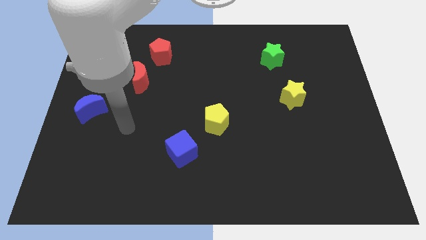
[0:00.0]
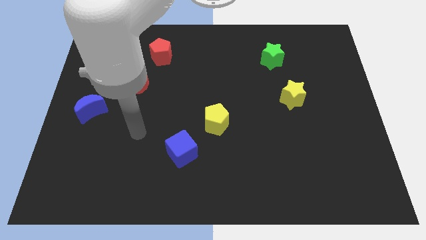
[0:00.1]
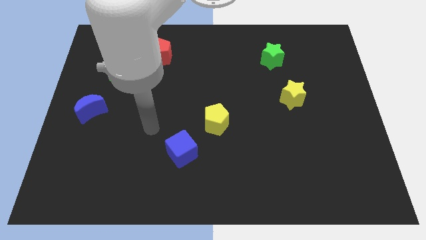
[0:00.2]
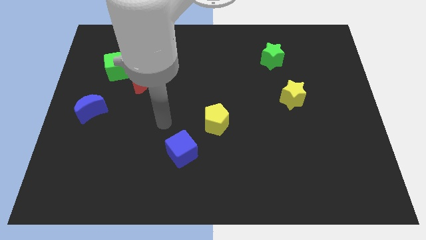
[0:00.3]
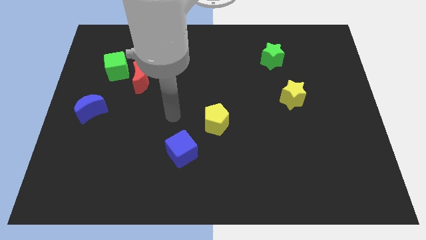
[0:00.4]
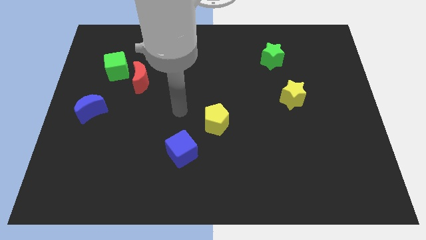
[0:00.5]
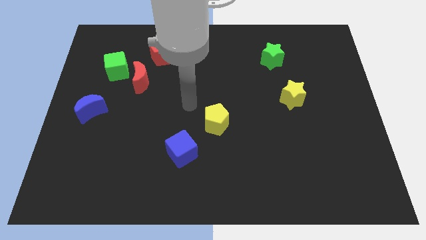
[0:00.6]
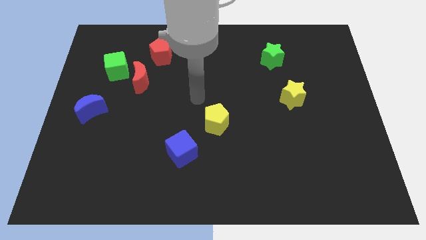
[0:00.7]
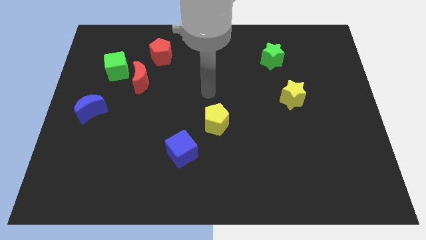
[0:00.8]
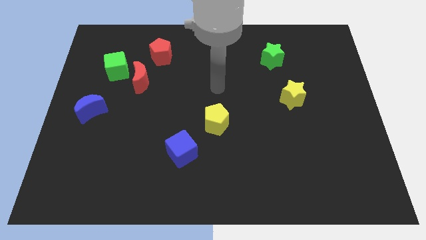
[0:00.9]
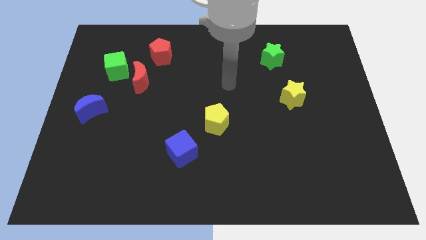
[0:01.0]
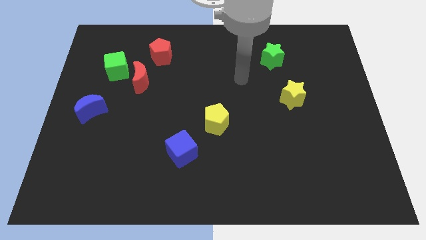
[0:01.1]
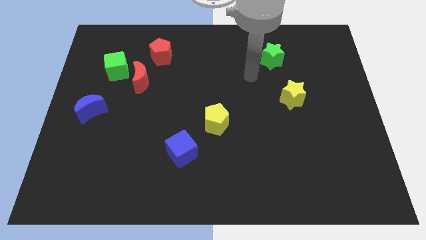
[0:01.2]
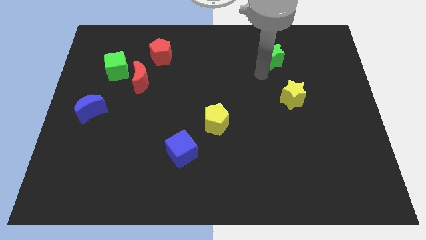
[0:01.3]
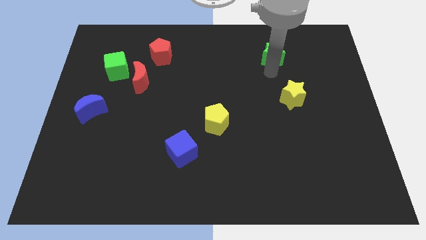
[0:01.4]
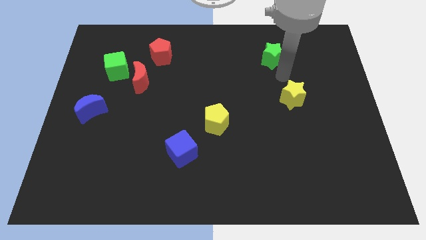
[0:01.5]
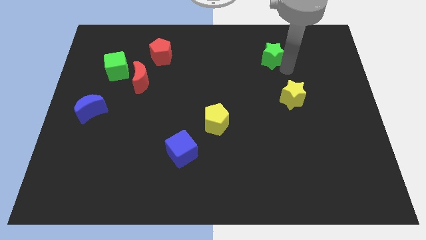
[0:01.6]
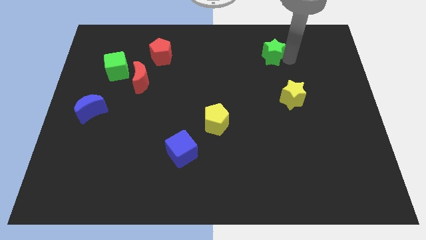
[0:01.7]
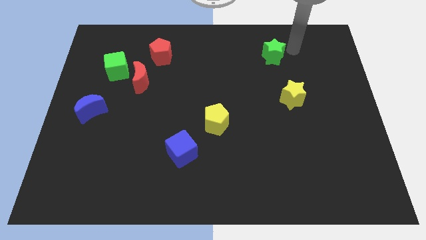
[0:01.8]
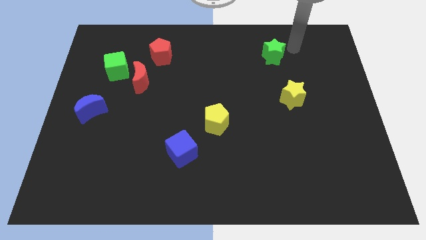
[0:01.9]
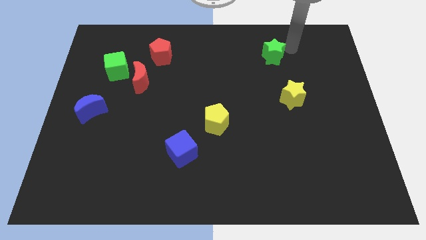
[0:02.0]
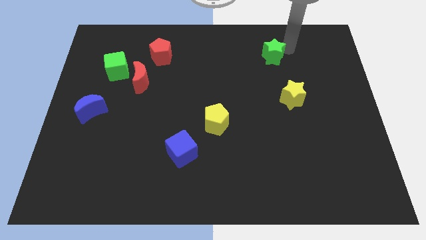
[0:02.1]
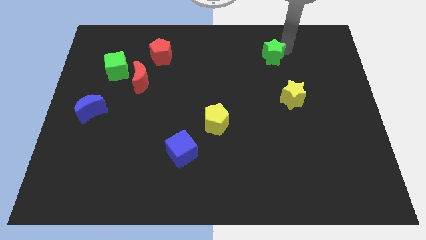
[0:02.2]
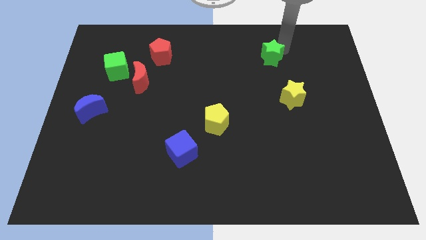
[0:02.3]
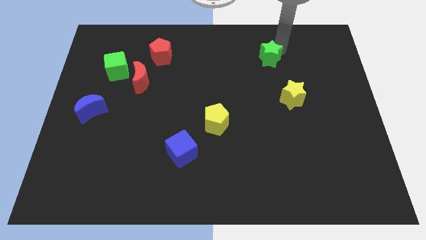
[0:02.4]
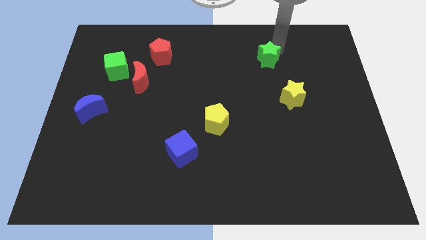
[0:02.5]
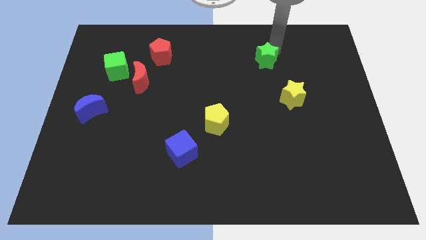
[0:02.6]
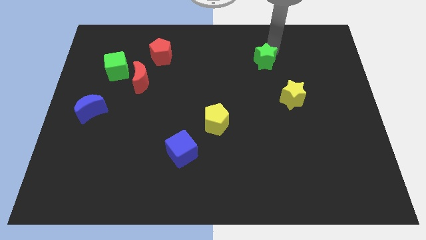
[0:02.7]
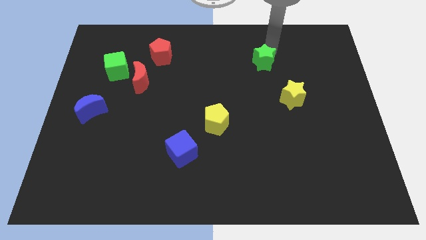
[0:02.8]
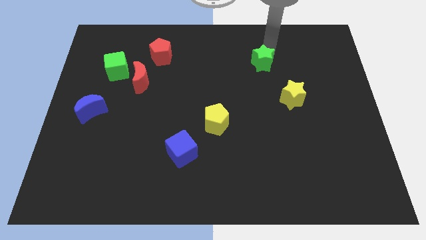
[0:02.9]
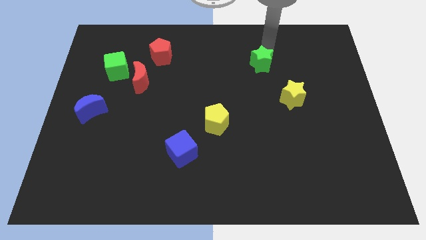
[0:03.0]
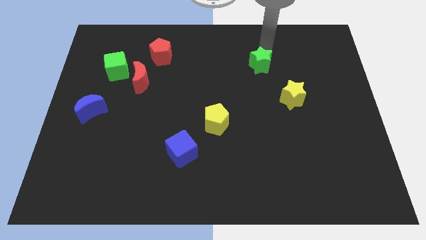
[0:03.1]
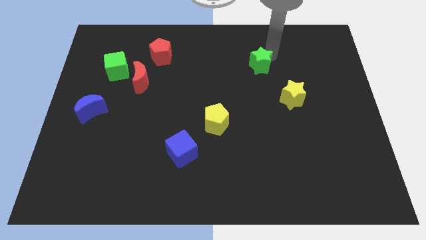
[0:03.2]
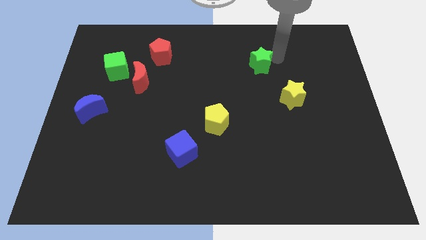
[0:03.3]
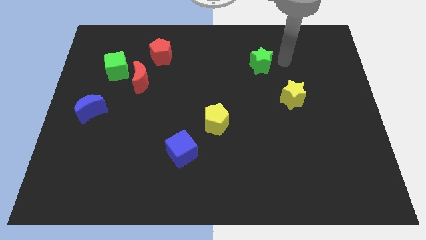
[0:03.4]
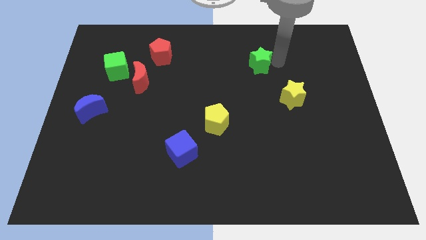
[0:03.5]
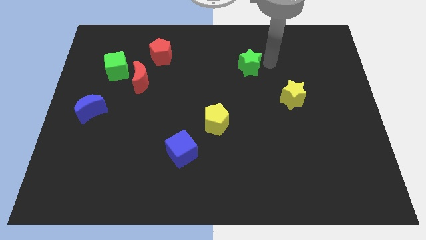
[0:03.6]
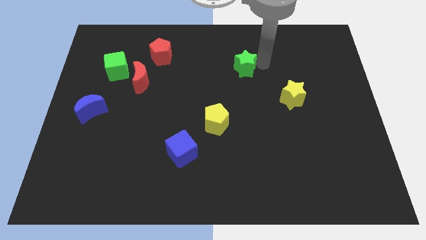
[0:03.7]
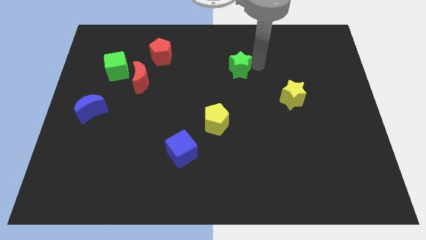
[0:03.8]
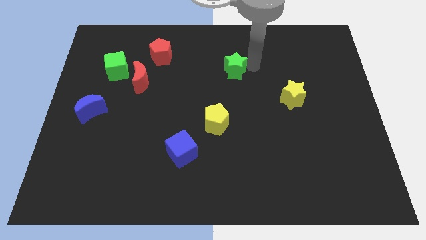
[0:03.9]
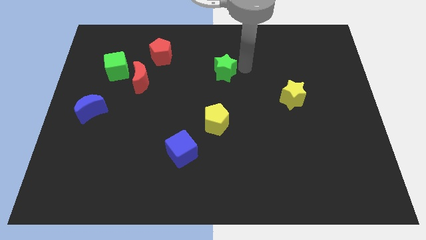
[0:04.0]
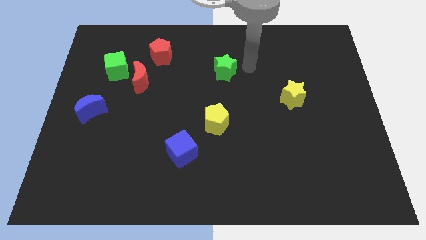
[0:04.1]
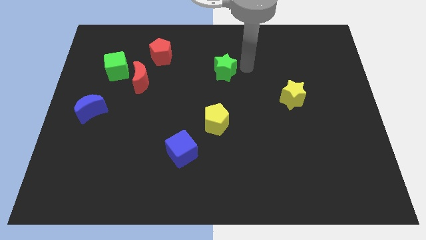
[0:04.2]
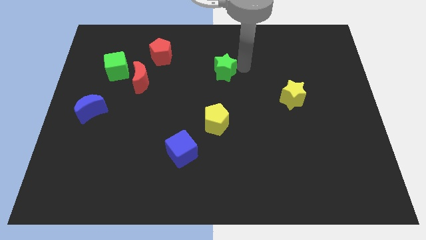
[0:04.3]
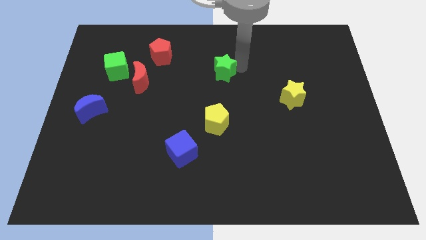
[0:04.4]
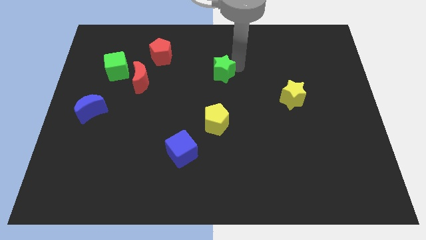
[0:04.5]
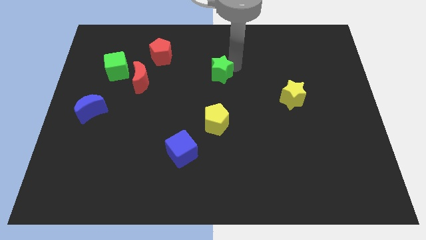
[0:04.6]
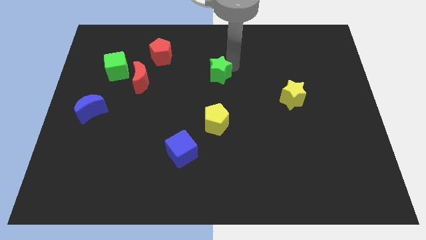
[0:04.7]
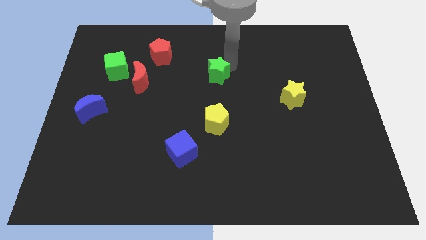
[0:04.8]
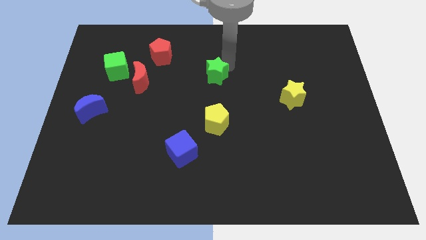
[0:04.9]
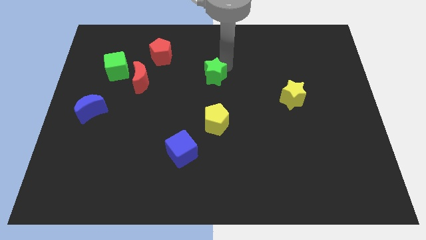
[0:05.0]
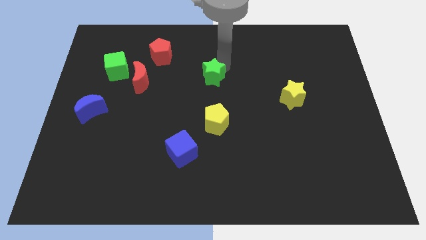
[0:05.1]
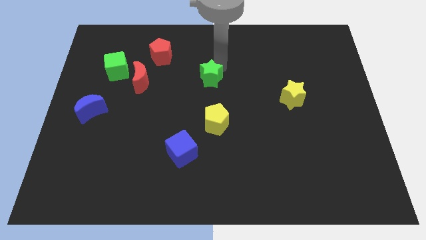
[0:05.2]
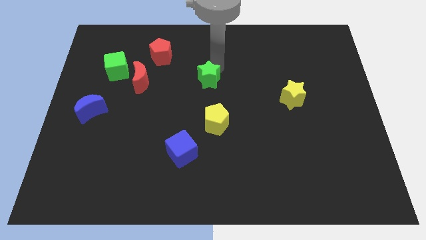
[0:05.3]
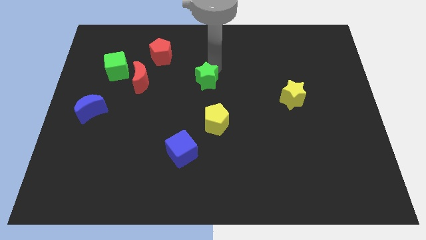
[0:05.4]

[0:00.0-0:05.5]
slide the green star just right of the red moon

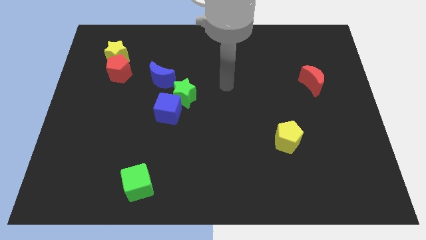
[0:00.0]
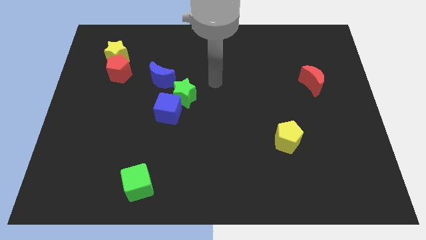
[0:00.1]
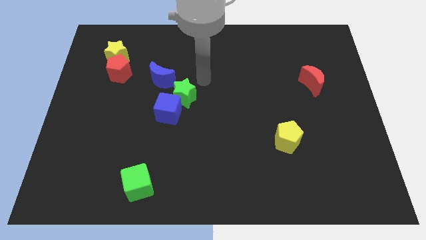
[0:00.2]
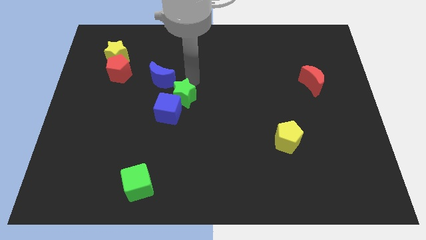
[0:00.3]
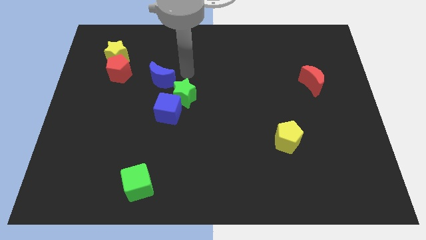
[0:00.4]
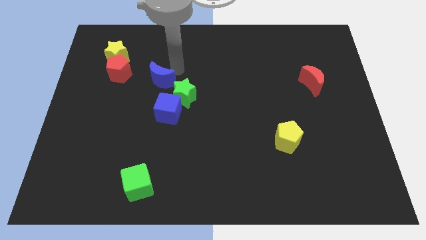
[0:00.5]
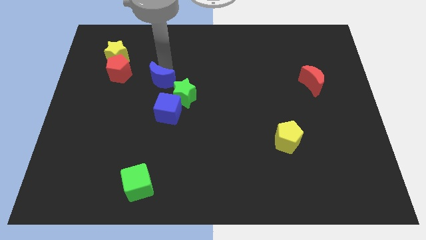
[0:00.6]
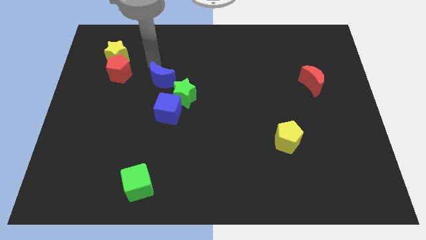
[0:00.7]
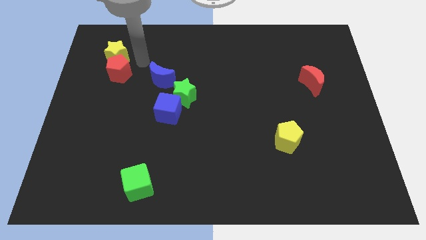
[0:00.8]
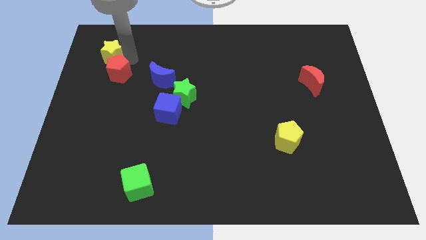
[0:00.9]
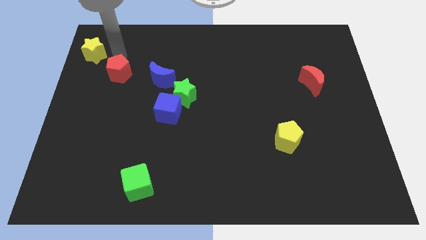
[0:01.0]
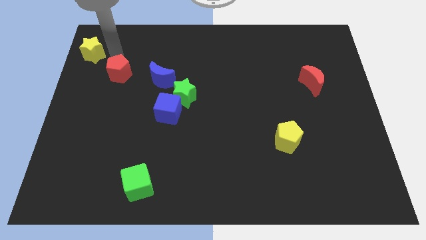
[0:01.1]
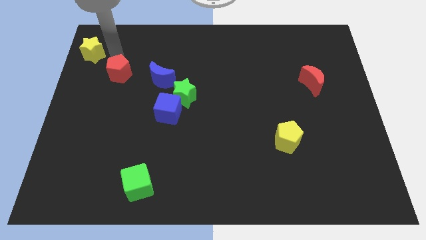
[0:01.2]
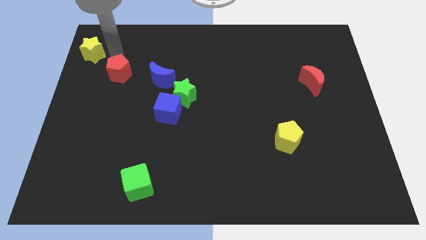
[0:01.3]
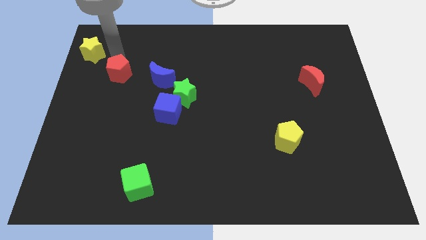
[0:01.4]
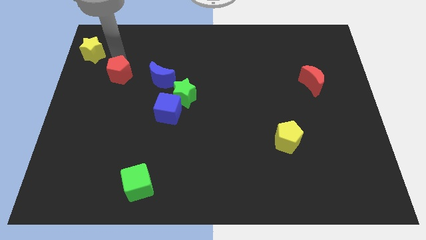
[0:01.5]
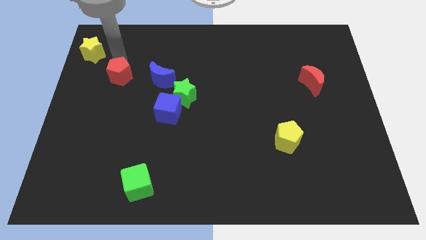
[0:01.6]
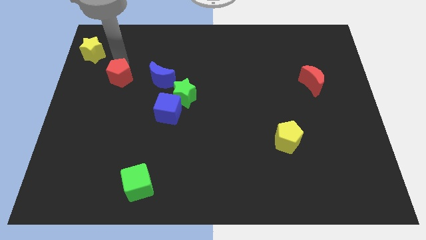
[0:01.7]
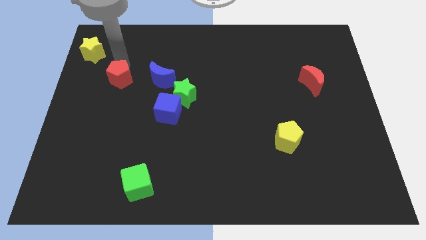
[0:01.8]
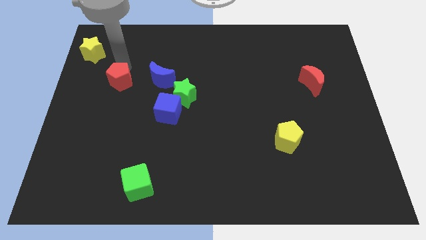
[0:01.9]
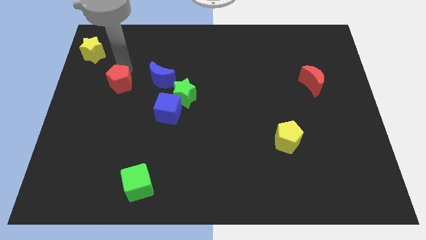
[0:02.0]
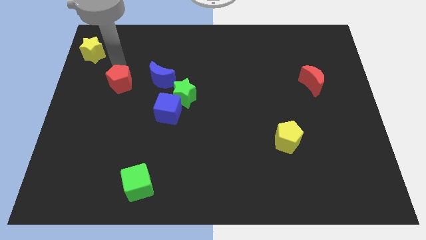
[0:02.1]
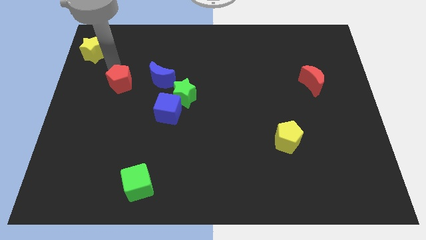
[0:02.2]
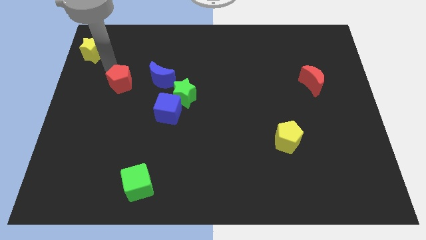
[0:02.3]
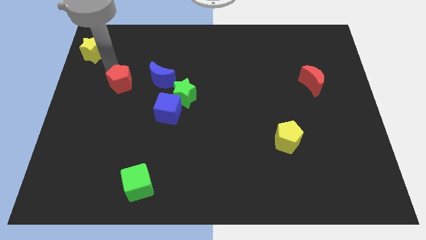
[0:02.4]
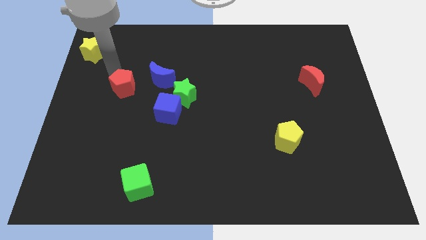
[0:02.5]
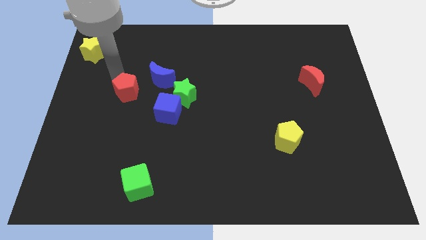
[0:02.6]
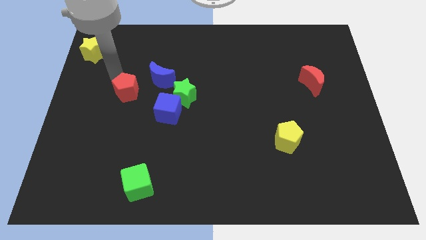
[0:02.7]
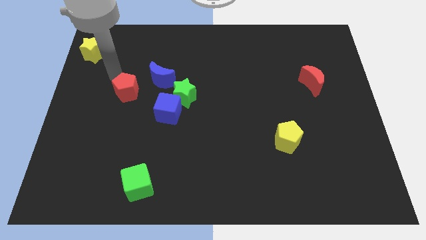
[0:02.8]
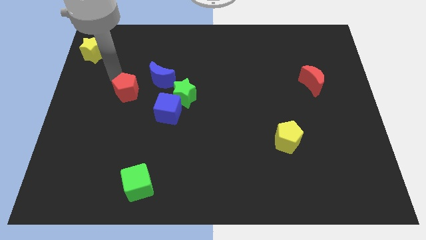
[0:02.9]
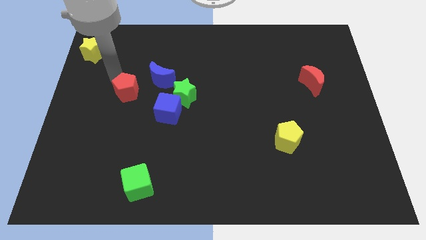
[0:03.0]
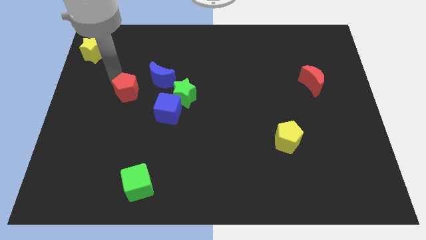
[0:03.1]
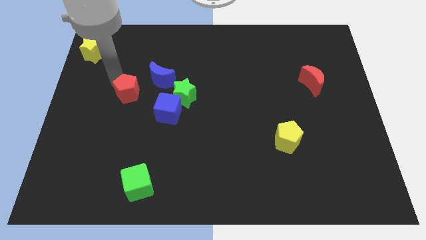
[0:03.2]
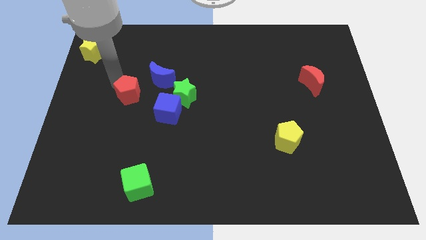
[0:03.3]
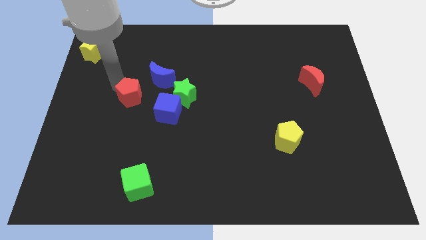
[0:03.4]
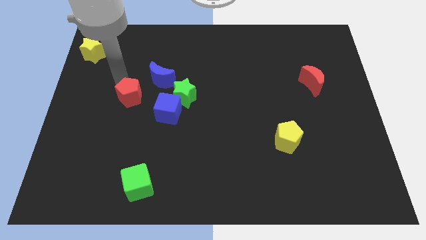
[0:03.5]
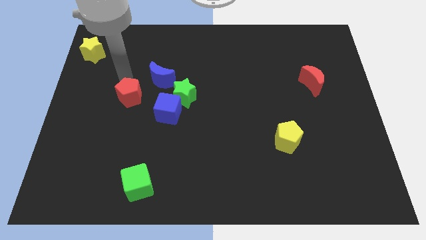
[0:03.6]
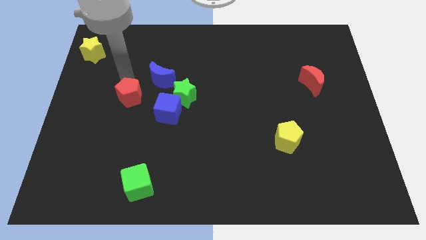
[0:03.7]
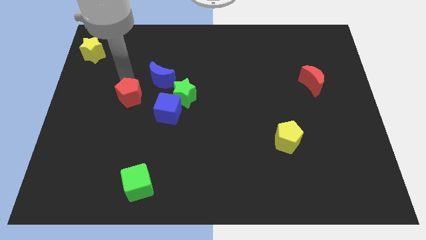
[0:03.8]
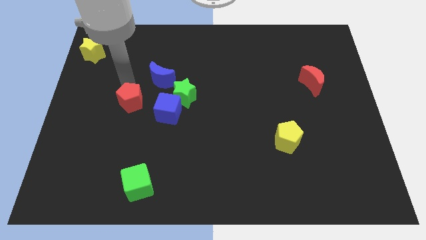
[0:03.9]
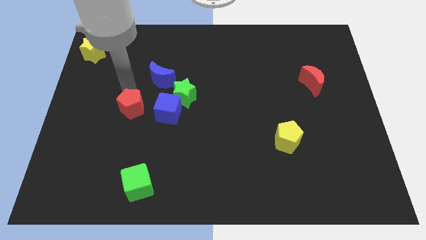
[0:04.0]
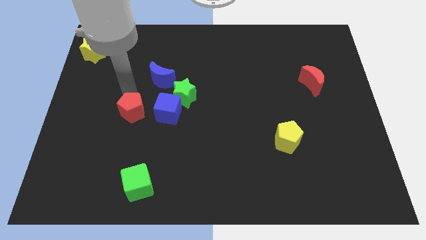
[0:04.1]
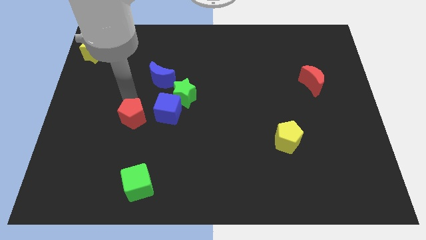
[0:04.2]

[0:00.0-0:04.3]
slide the red pentagon to the bottom left of the blue cube
